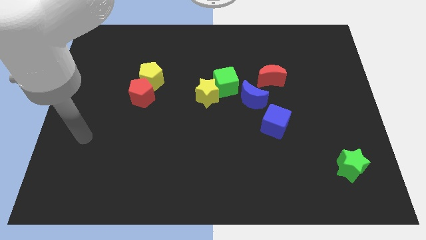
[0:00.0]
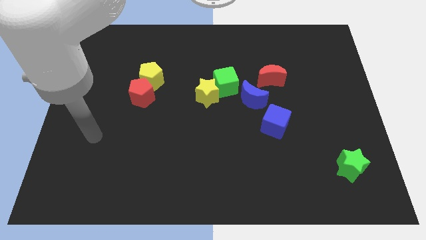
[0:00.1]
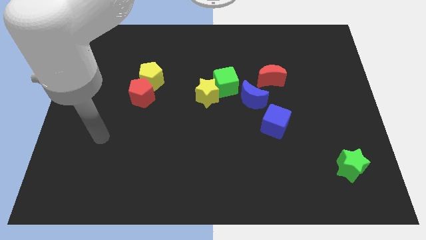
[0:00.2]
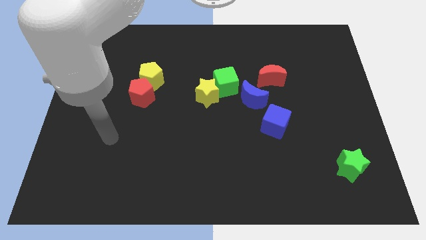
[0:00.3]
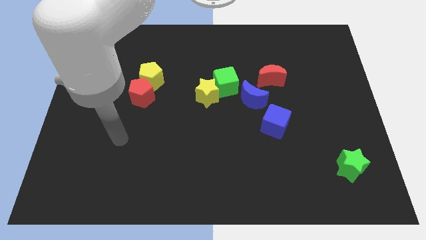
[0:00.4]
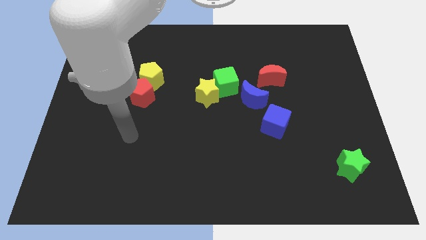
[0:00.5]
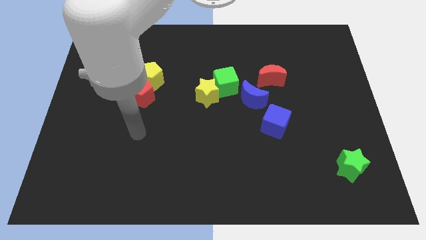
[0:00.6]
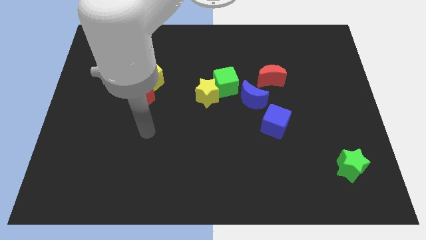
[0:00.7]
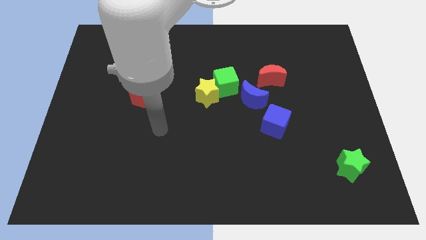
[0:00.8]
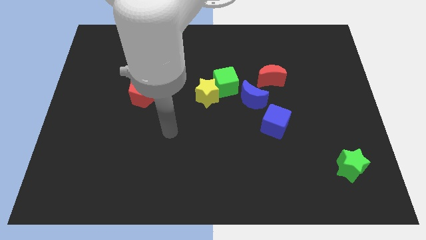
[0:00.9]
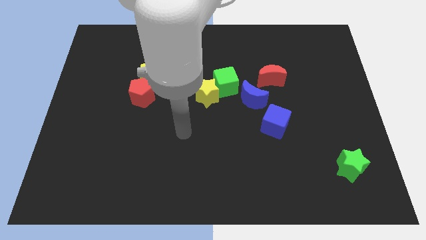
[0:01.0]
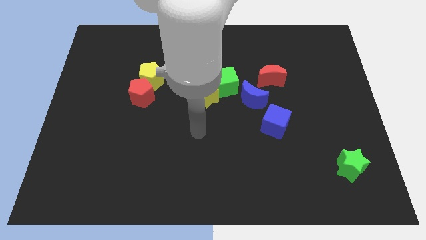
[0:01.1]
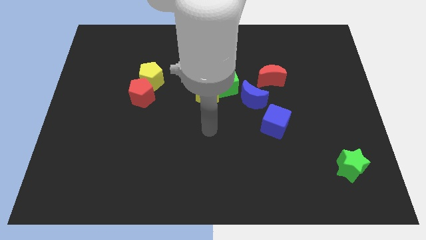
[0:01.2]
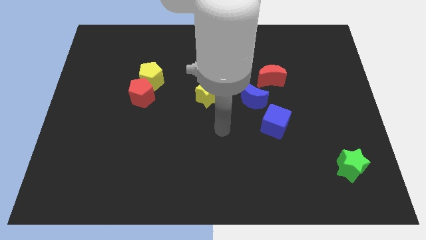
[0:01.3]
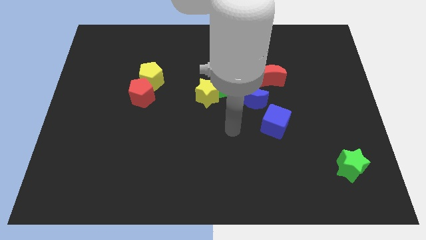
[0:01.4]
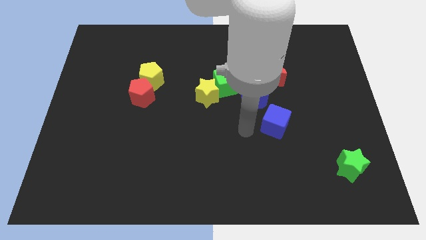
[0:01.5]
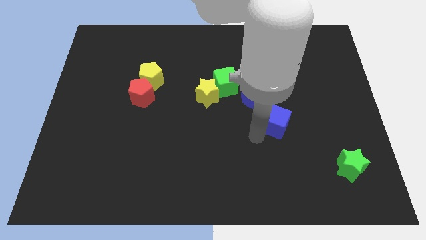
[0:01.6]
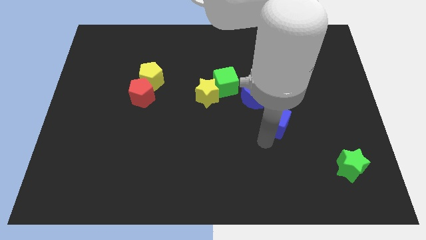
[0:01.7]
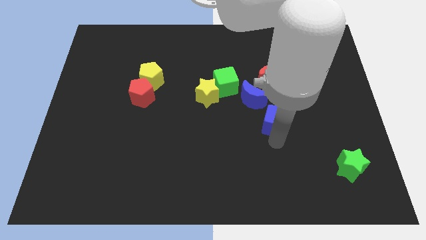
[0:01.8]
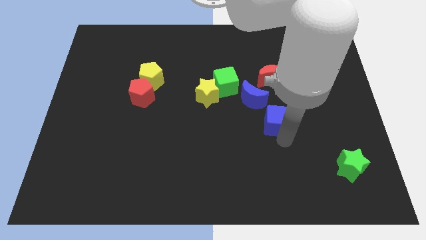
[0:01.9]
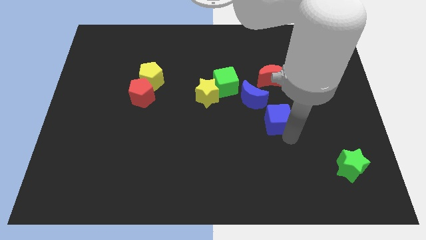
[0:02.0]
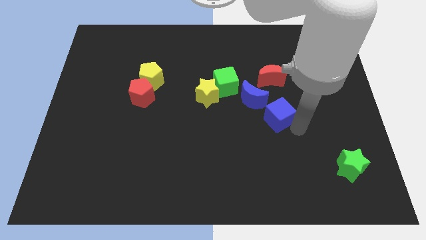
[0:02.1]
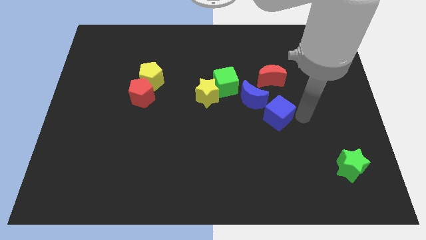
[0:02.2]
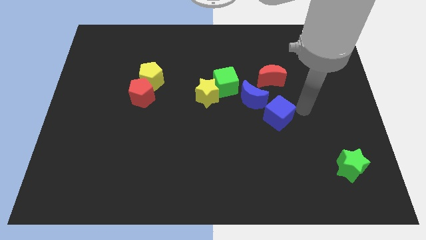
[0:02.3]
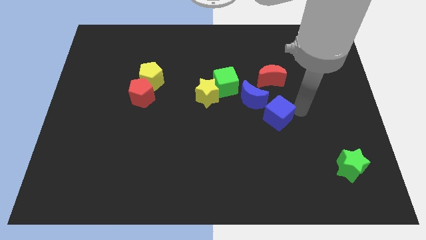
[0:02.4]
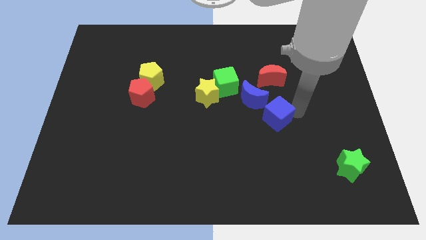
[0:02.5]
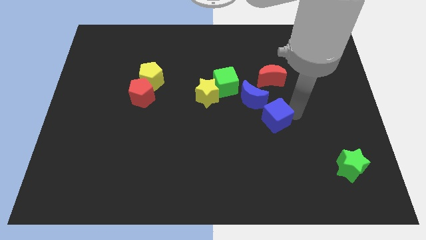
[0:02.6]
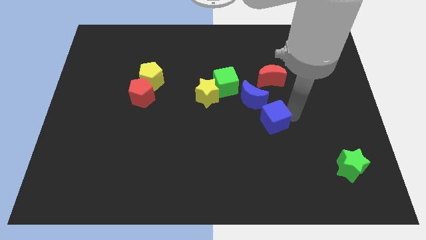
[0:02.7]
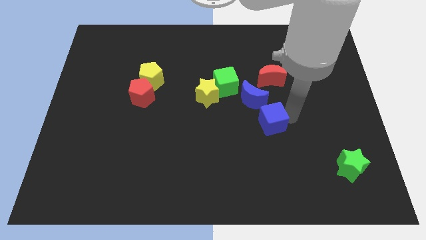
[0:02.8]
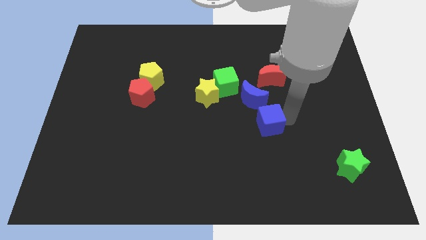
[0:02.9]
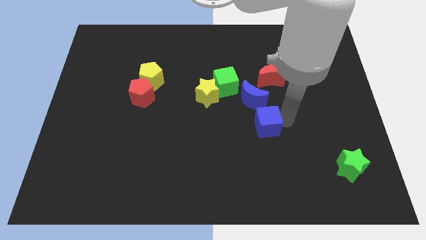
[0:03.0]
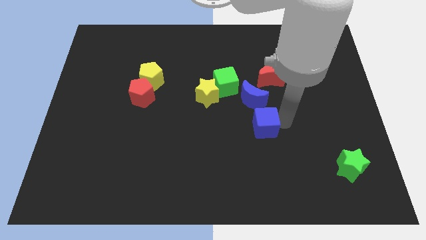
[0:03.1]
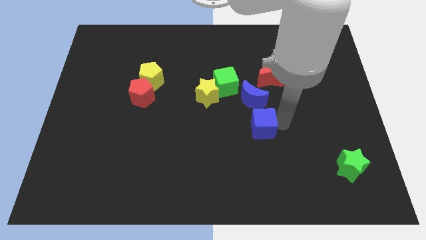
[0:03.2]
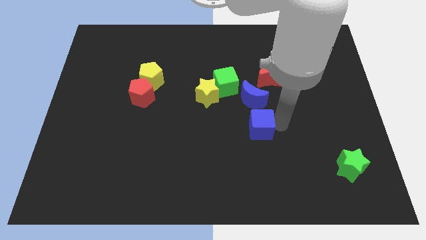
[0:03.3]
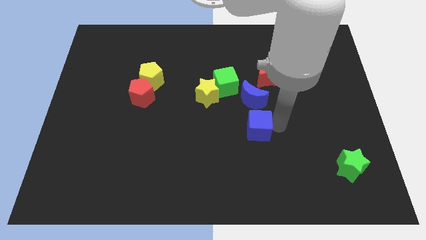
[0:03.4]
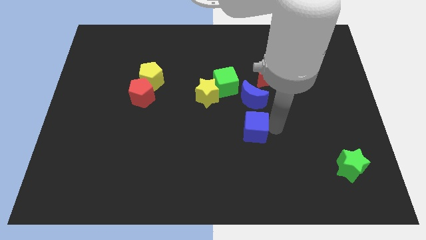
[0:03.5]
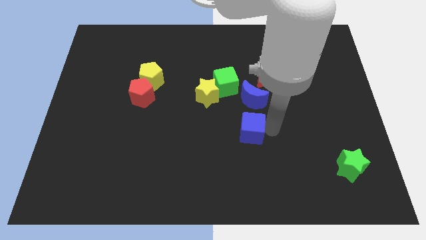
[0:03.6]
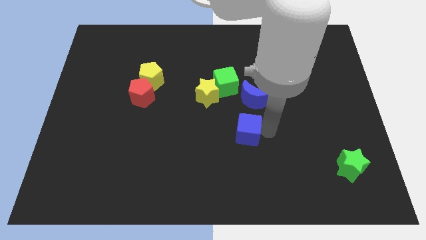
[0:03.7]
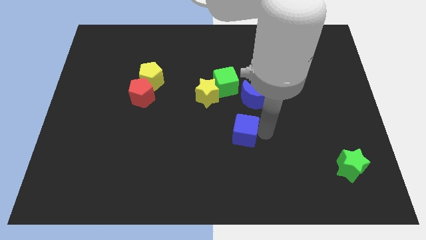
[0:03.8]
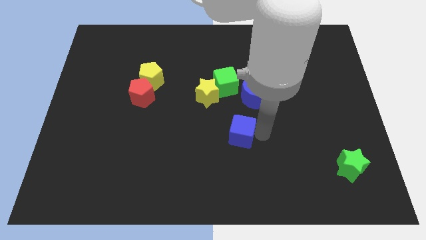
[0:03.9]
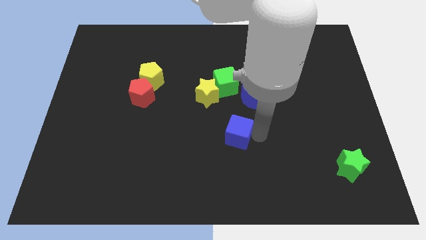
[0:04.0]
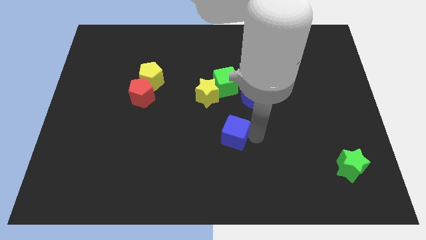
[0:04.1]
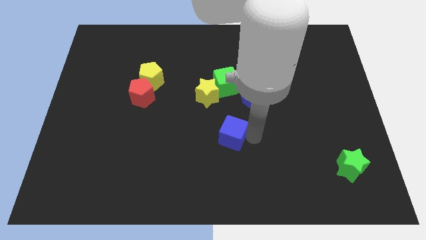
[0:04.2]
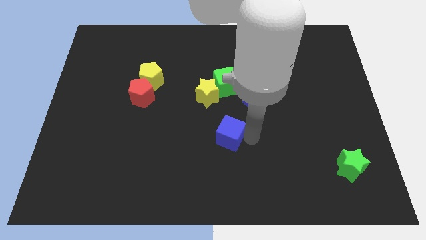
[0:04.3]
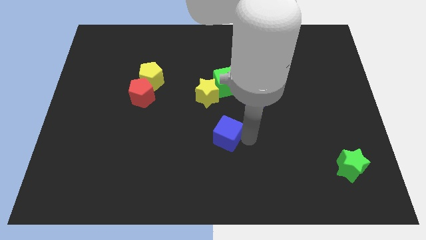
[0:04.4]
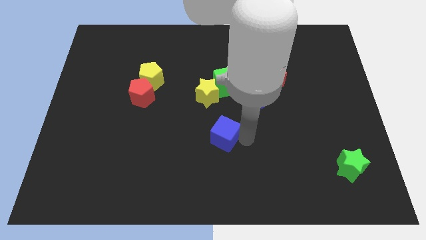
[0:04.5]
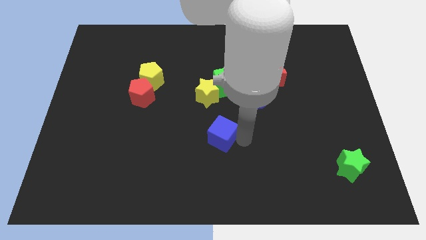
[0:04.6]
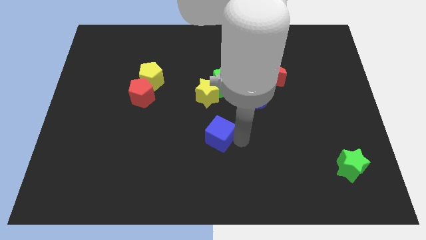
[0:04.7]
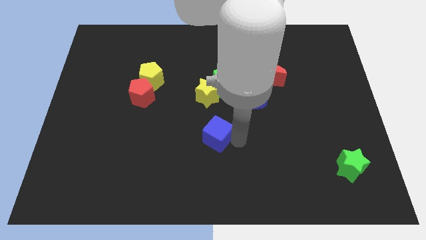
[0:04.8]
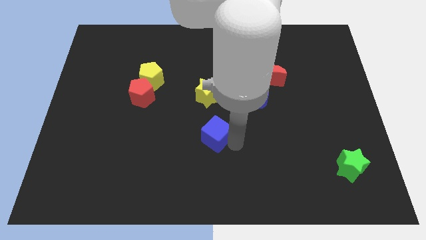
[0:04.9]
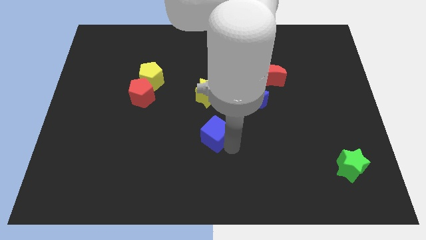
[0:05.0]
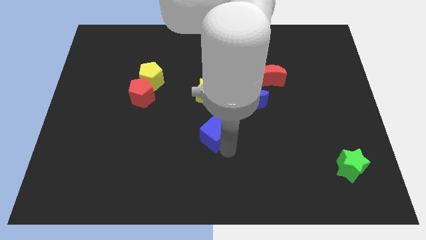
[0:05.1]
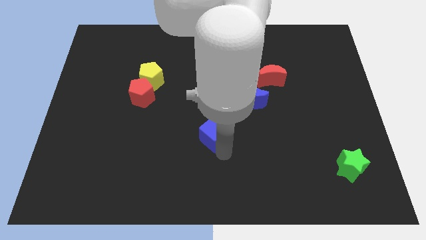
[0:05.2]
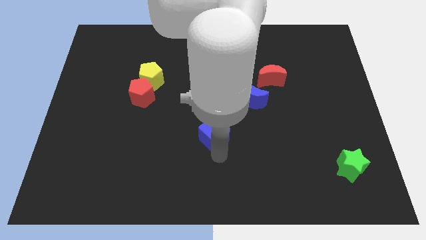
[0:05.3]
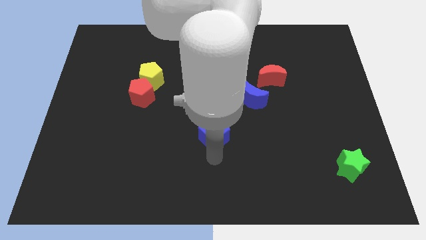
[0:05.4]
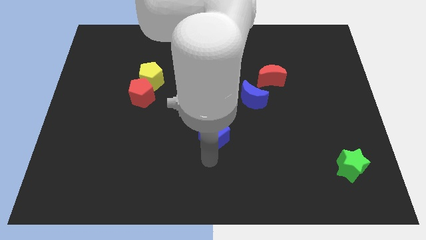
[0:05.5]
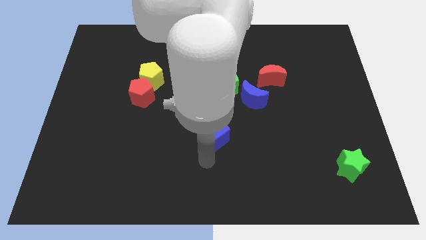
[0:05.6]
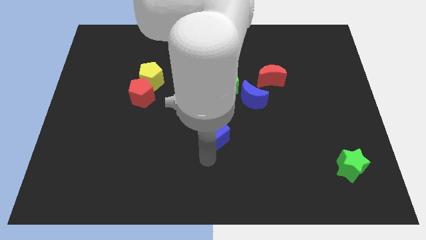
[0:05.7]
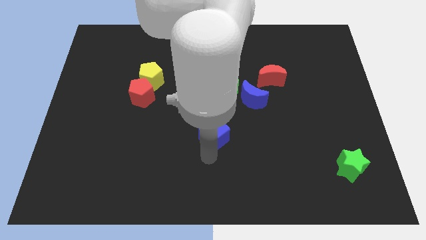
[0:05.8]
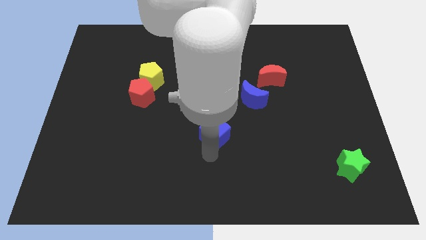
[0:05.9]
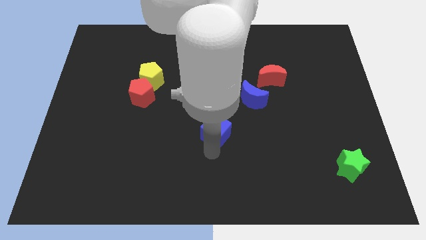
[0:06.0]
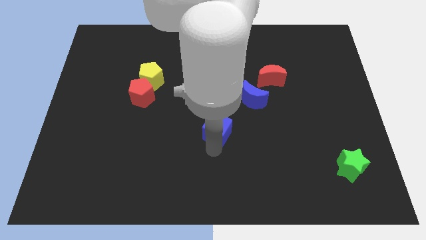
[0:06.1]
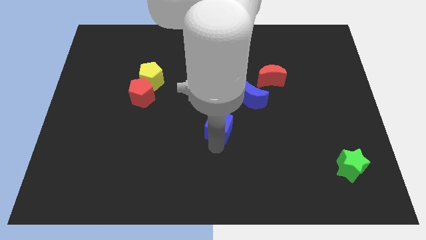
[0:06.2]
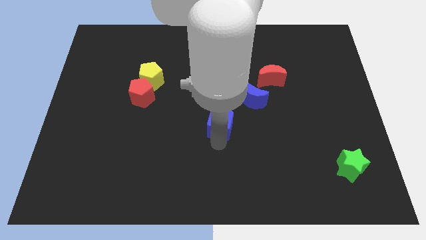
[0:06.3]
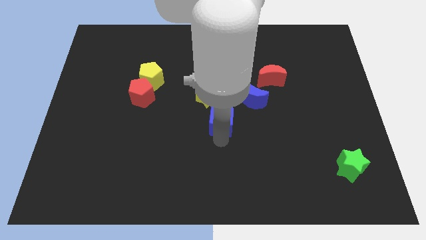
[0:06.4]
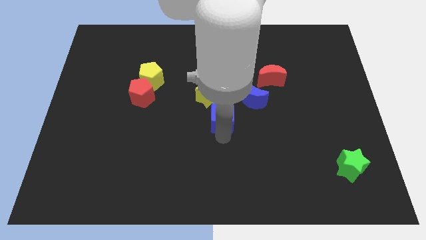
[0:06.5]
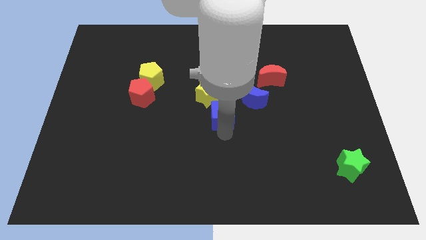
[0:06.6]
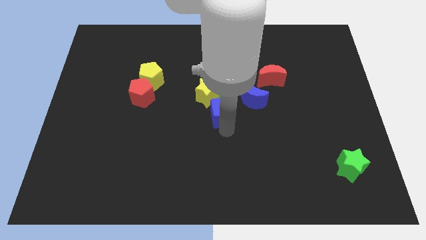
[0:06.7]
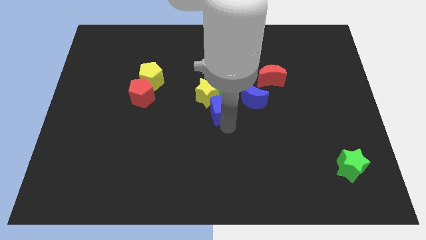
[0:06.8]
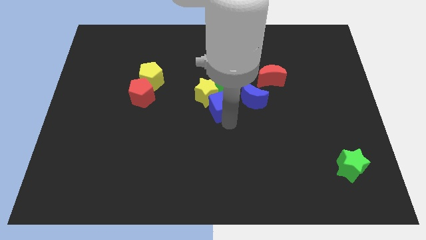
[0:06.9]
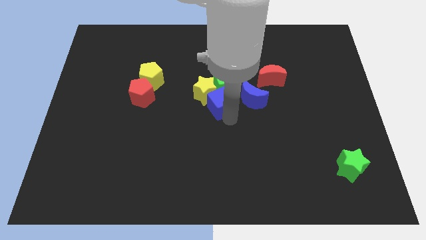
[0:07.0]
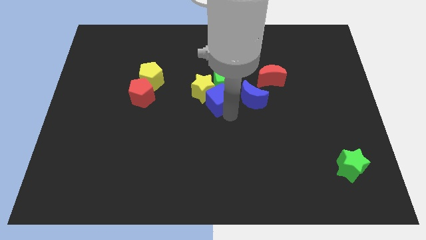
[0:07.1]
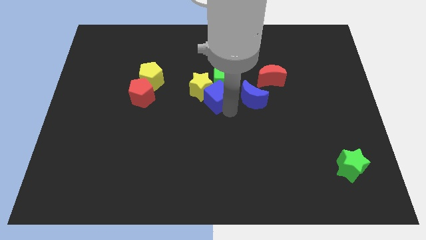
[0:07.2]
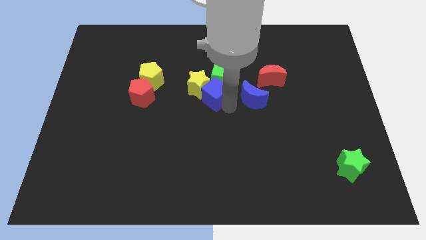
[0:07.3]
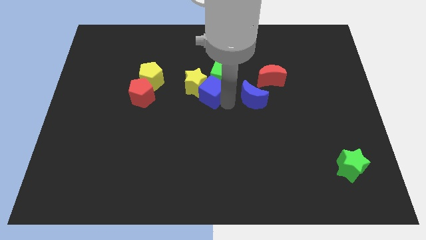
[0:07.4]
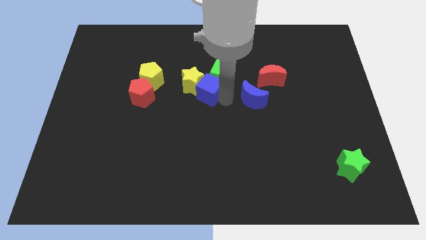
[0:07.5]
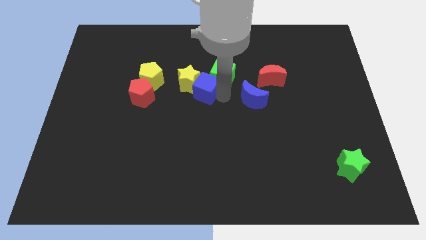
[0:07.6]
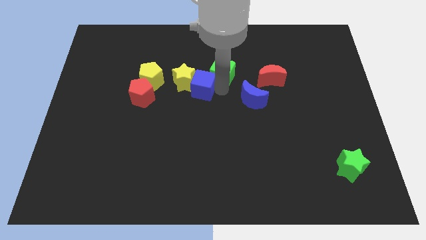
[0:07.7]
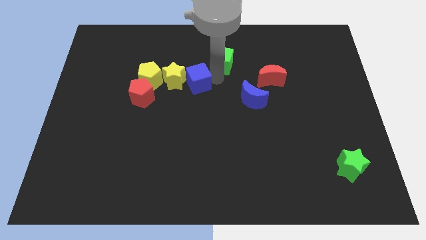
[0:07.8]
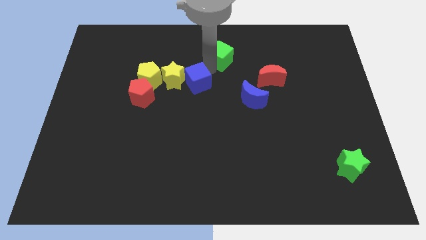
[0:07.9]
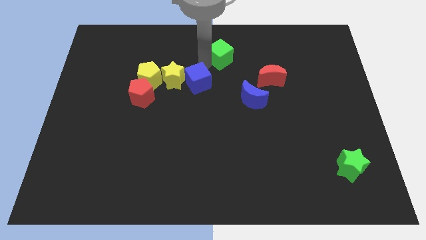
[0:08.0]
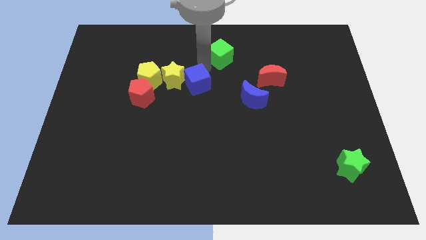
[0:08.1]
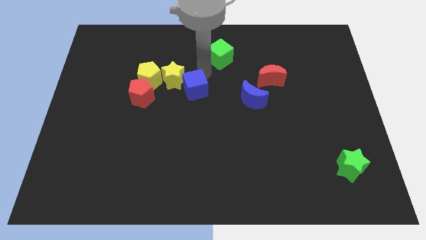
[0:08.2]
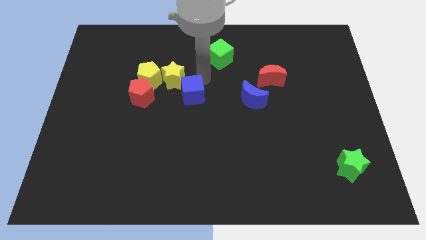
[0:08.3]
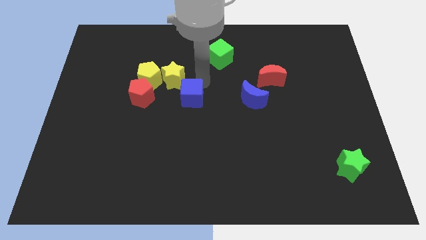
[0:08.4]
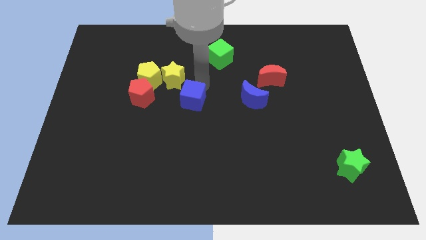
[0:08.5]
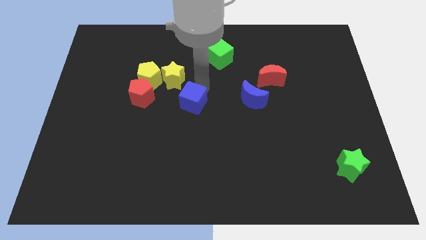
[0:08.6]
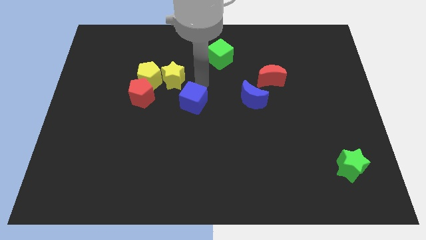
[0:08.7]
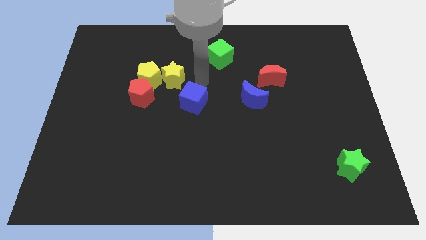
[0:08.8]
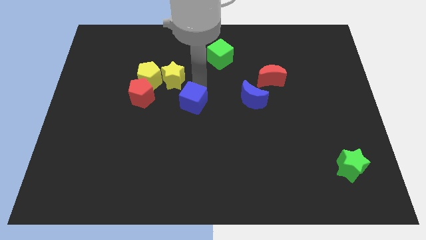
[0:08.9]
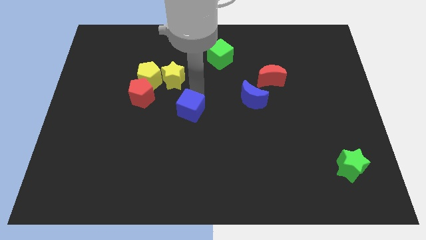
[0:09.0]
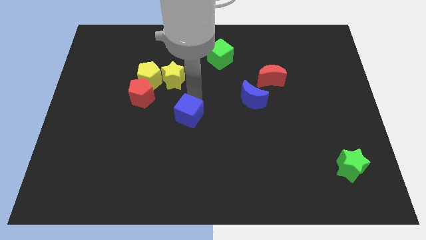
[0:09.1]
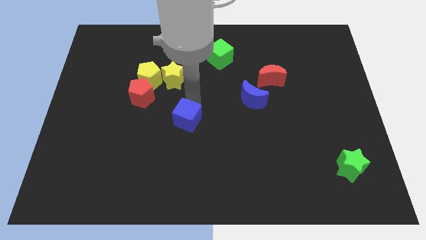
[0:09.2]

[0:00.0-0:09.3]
slide the blue cube left
